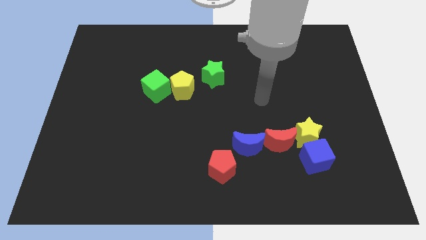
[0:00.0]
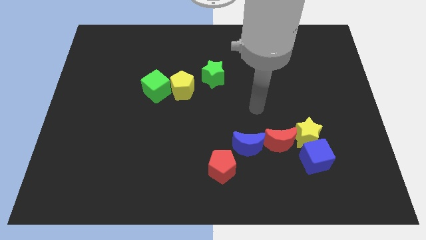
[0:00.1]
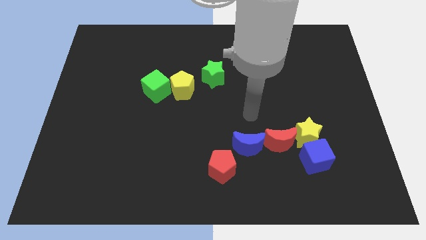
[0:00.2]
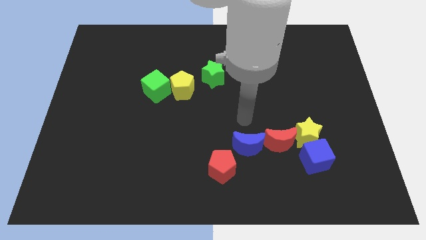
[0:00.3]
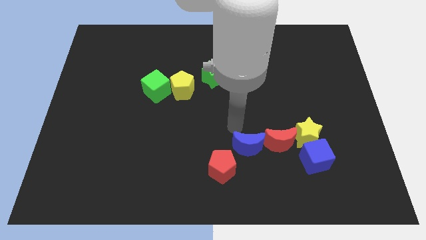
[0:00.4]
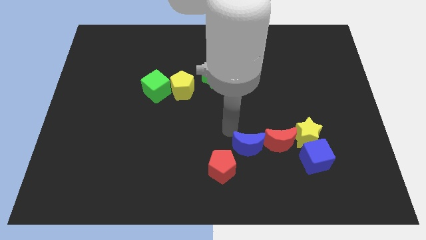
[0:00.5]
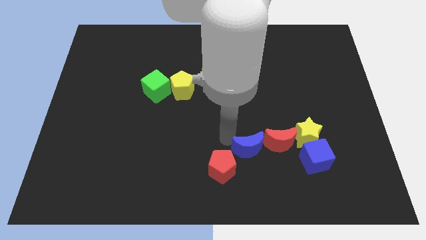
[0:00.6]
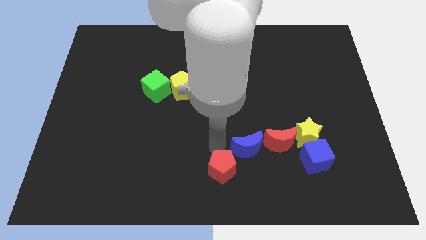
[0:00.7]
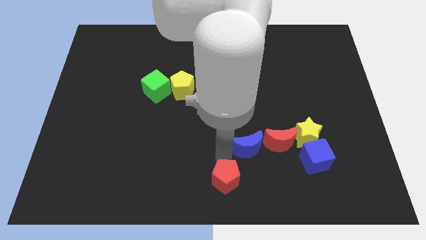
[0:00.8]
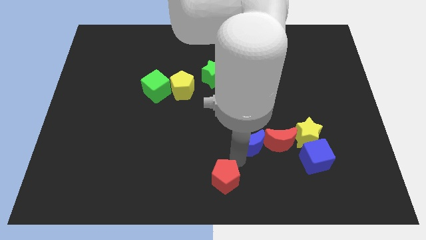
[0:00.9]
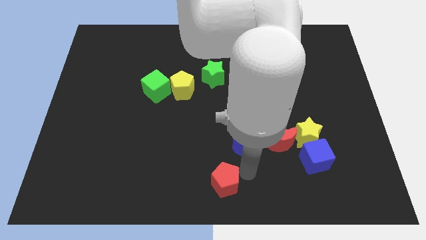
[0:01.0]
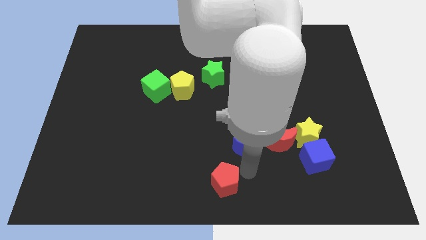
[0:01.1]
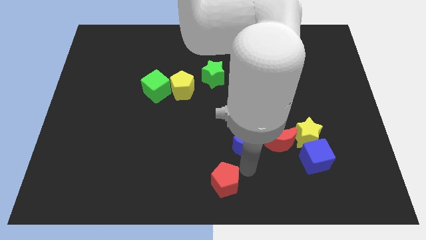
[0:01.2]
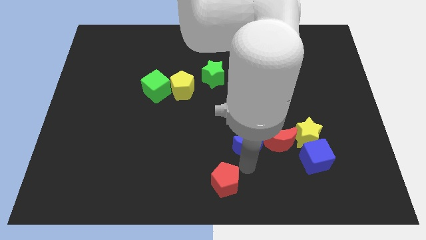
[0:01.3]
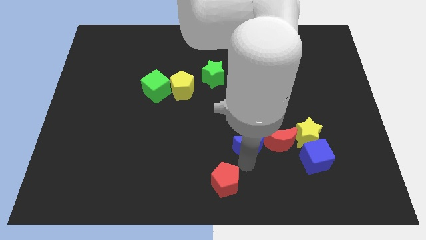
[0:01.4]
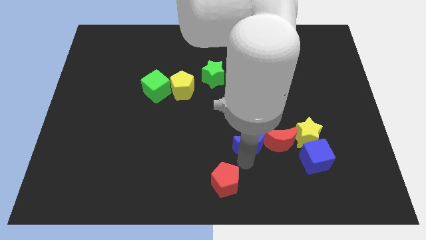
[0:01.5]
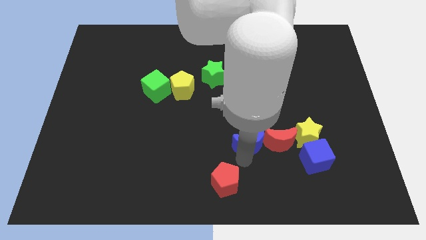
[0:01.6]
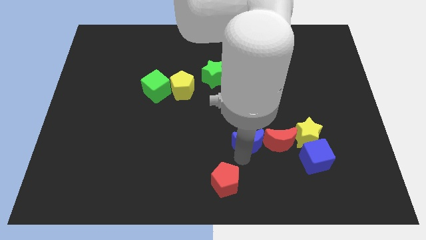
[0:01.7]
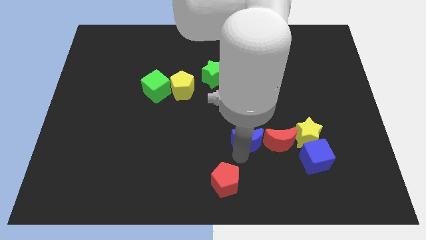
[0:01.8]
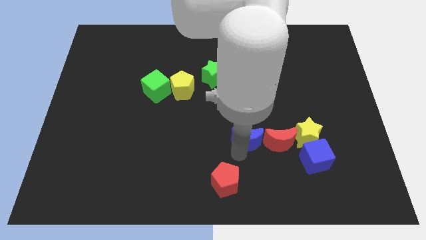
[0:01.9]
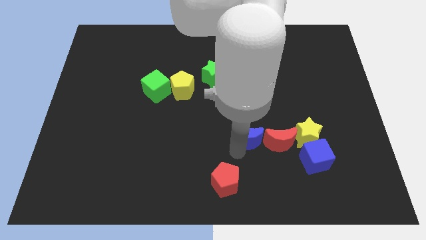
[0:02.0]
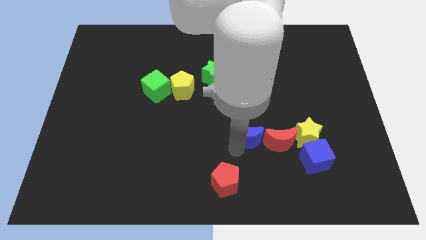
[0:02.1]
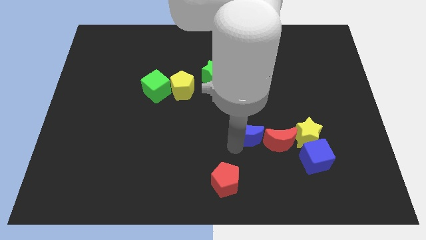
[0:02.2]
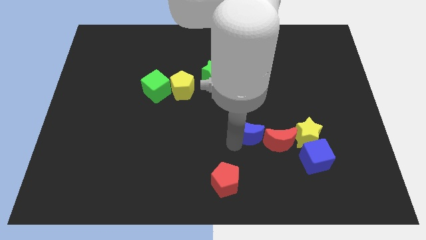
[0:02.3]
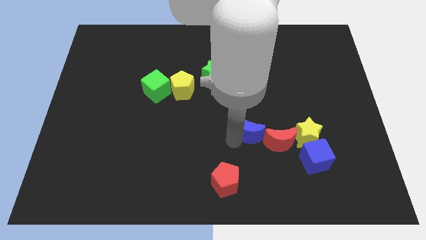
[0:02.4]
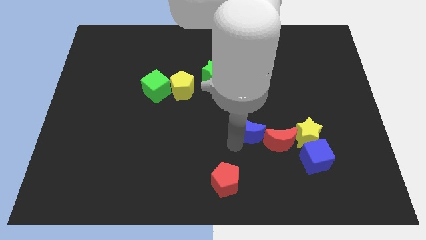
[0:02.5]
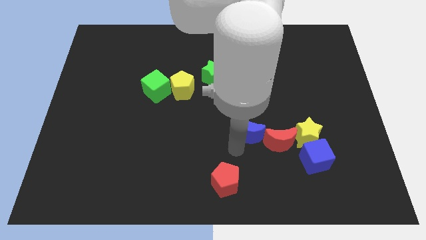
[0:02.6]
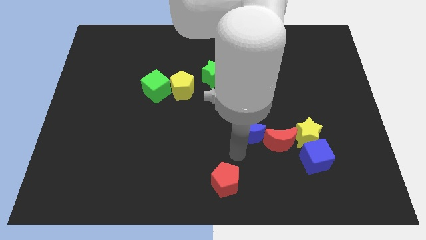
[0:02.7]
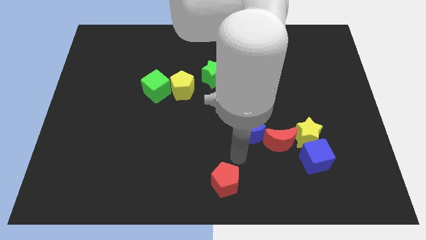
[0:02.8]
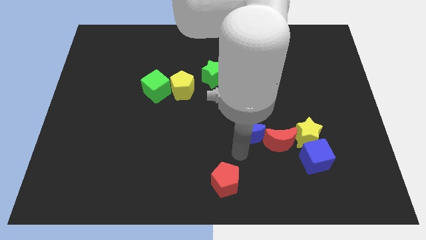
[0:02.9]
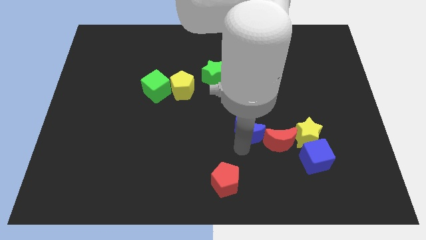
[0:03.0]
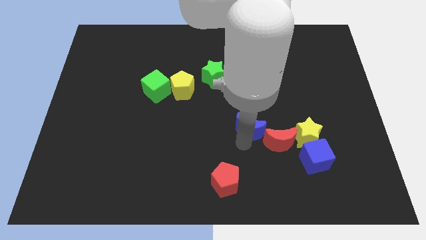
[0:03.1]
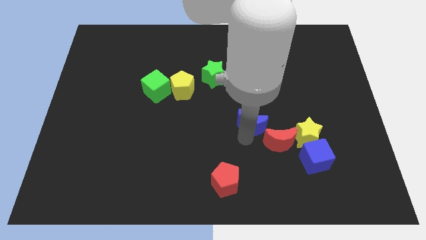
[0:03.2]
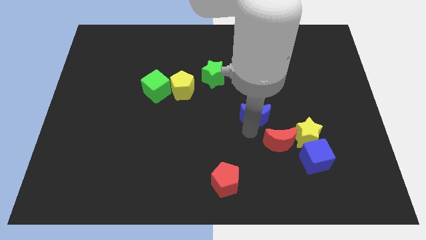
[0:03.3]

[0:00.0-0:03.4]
push the blue moon upwards a bit

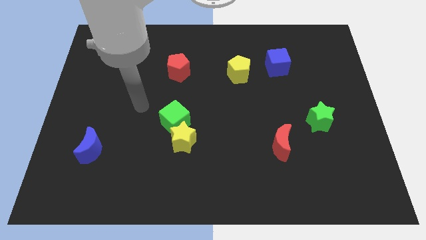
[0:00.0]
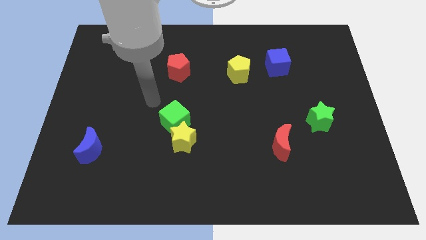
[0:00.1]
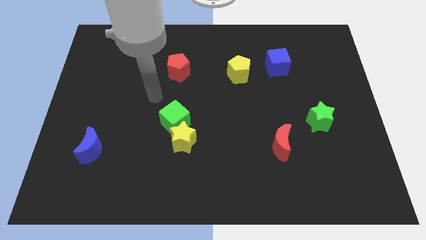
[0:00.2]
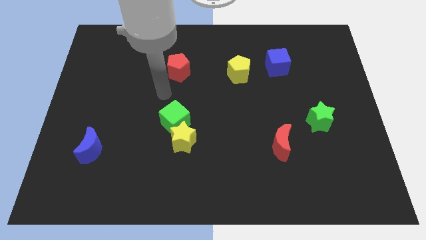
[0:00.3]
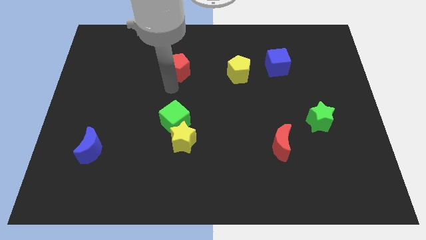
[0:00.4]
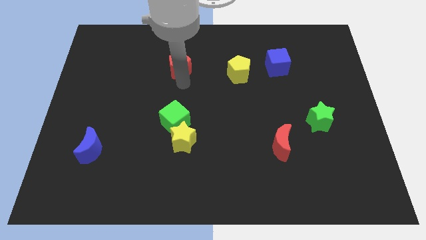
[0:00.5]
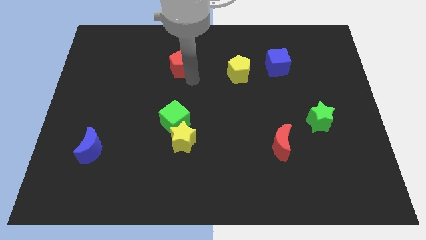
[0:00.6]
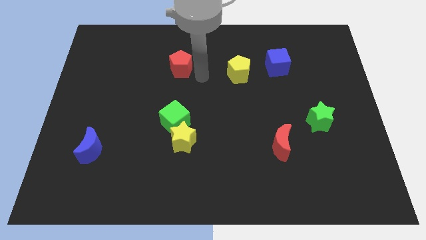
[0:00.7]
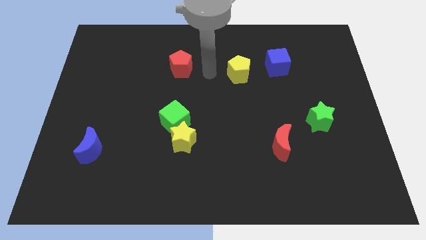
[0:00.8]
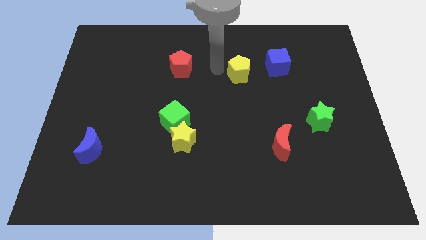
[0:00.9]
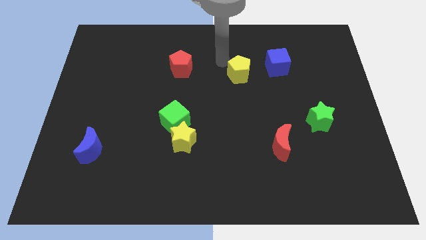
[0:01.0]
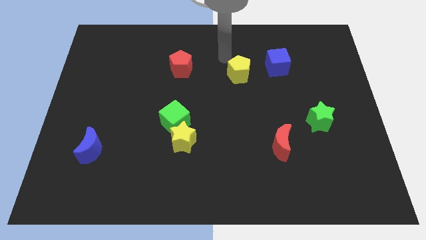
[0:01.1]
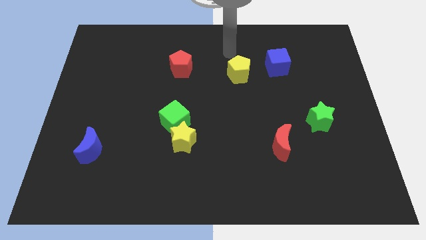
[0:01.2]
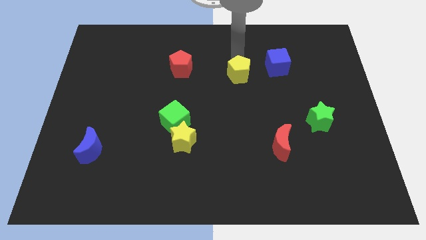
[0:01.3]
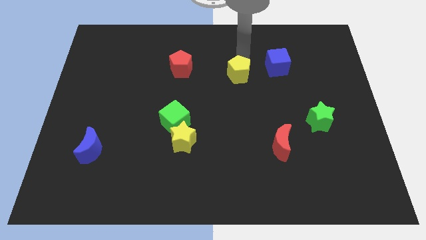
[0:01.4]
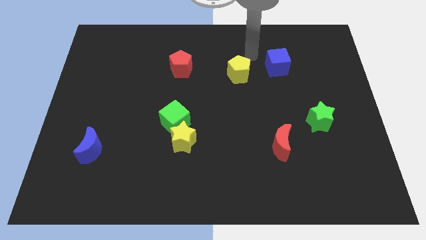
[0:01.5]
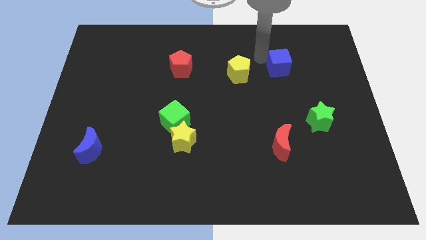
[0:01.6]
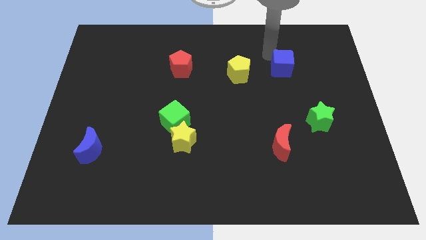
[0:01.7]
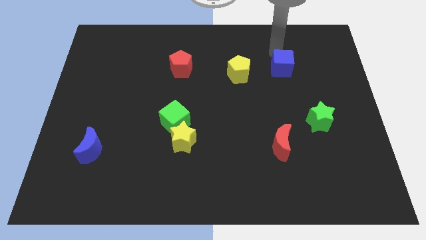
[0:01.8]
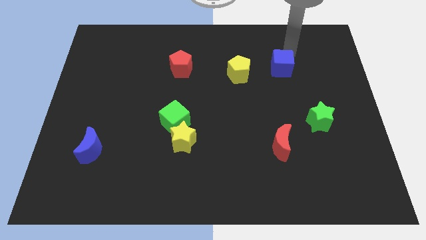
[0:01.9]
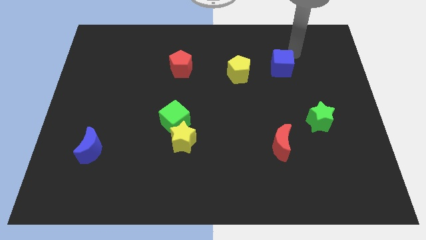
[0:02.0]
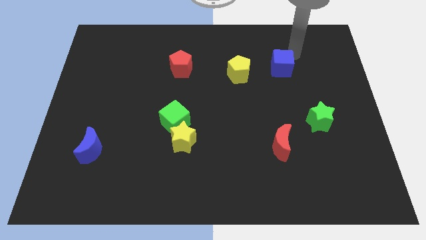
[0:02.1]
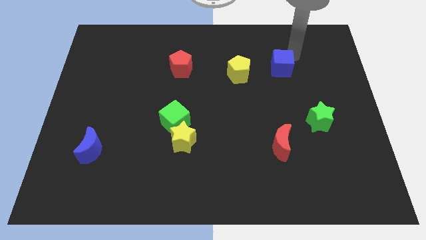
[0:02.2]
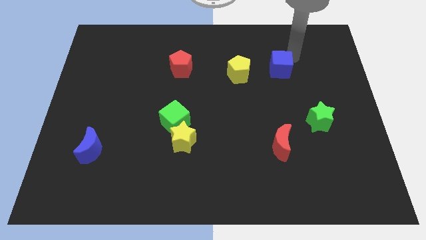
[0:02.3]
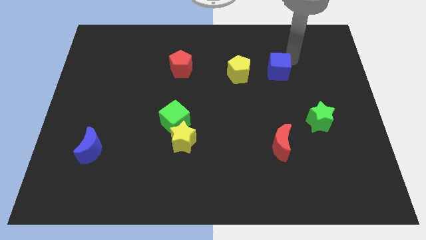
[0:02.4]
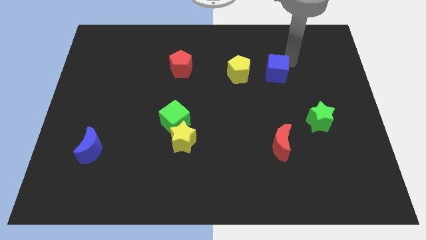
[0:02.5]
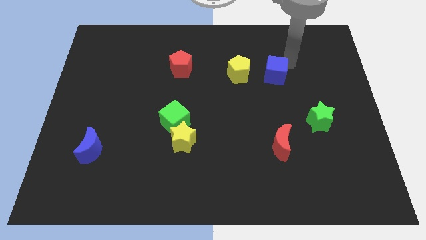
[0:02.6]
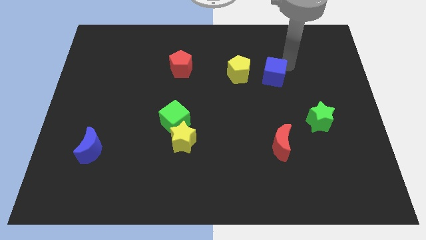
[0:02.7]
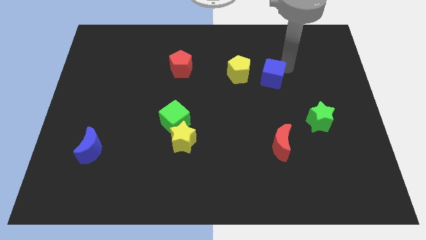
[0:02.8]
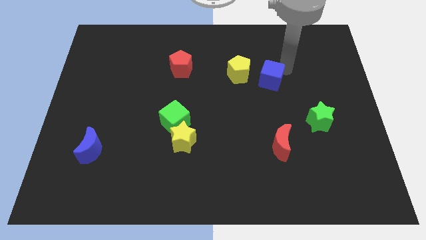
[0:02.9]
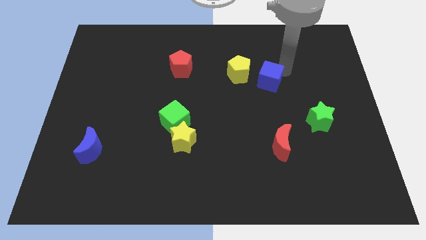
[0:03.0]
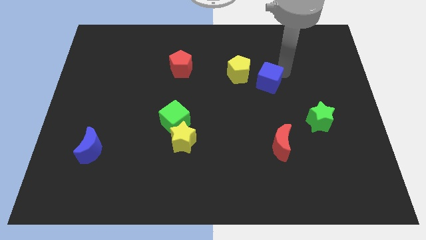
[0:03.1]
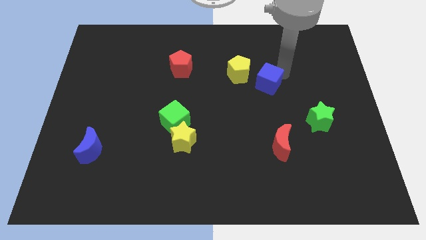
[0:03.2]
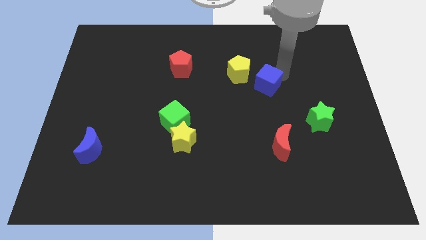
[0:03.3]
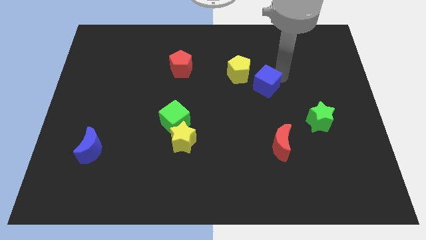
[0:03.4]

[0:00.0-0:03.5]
move the blue cube a little bit diagonally down and left

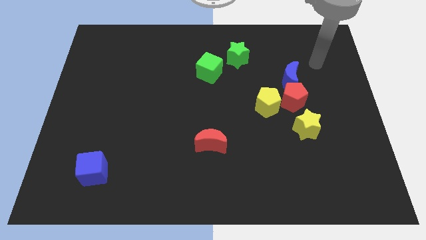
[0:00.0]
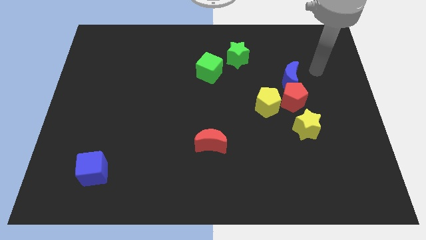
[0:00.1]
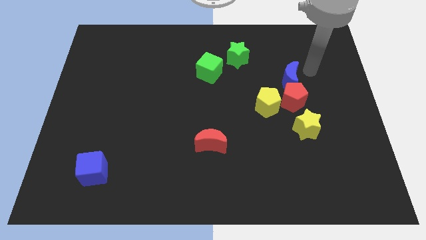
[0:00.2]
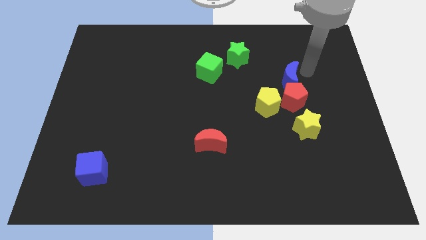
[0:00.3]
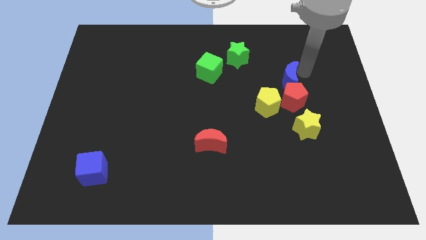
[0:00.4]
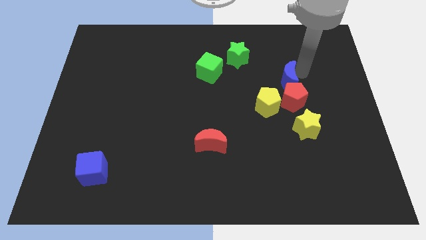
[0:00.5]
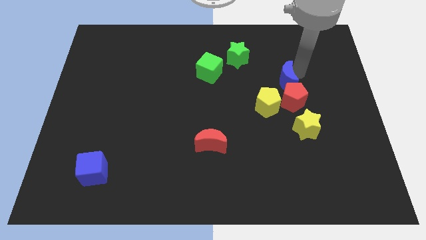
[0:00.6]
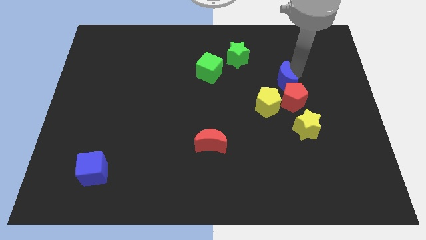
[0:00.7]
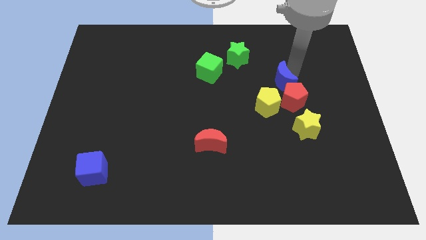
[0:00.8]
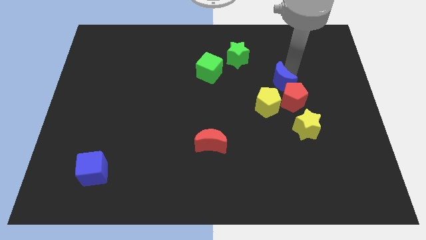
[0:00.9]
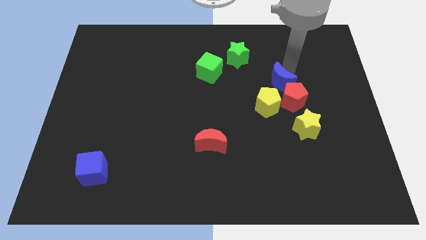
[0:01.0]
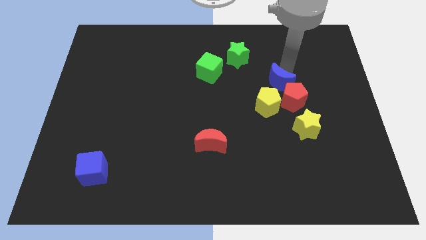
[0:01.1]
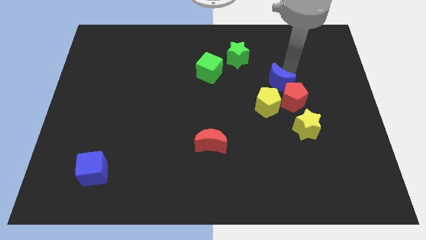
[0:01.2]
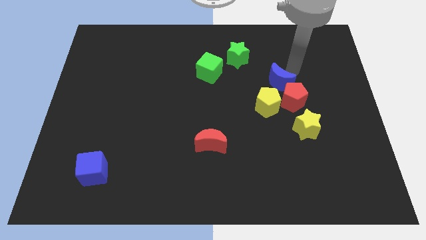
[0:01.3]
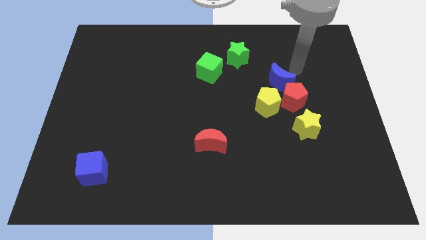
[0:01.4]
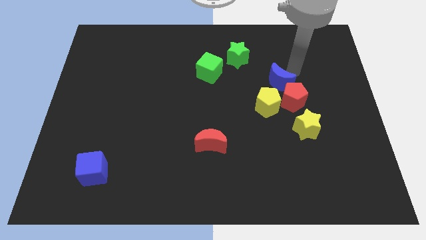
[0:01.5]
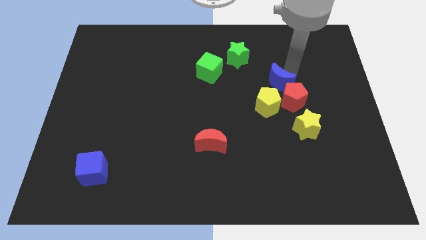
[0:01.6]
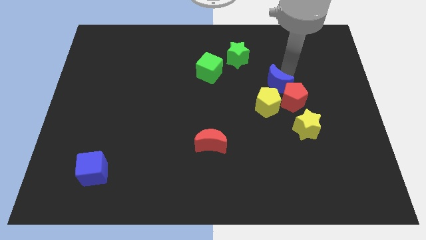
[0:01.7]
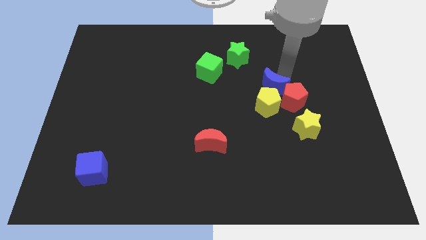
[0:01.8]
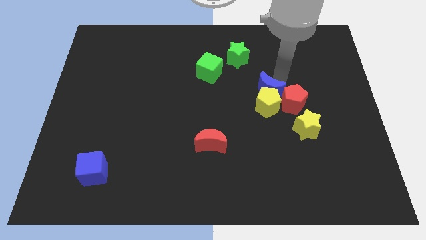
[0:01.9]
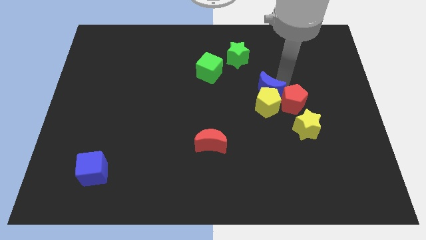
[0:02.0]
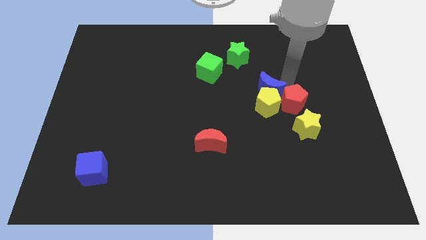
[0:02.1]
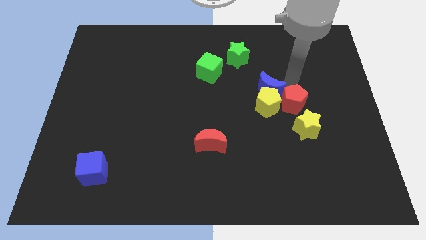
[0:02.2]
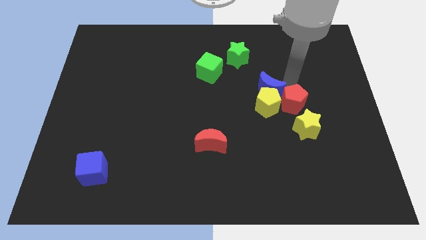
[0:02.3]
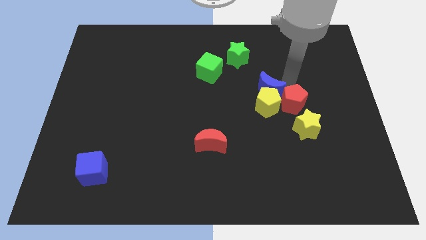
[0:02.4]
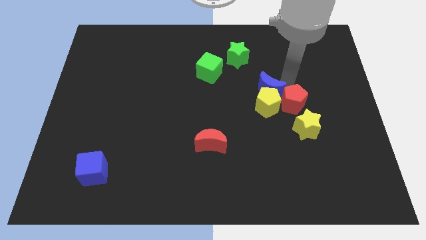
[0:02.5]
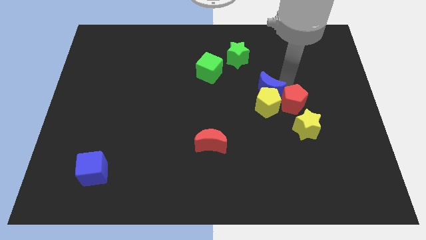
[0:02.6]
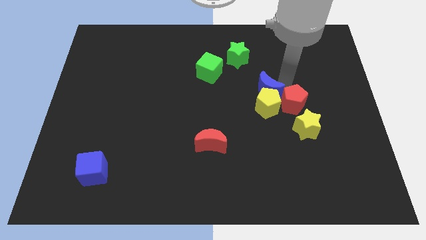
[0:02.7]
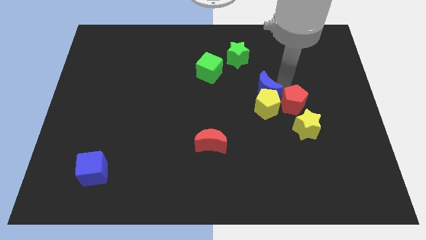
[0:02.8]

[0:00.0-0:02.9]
slide the blue moon a bit down and to the left
